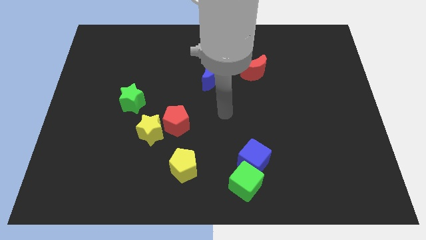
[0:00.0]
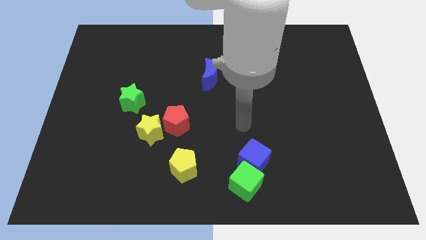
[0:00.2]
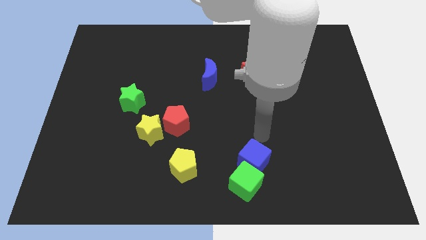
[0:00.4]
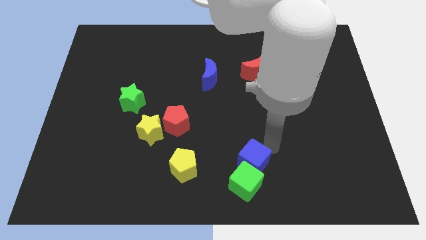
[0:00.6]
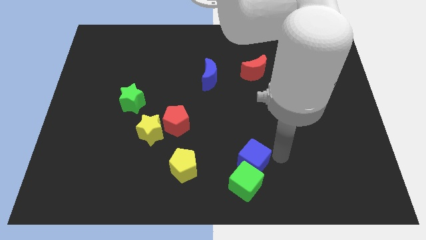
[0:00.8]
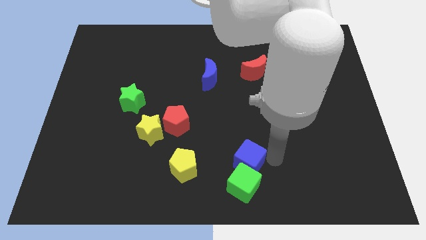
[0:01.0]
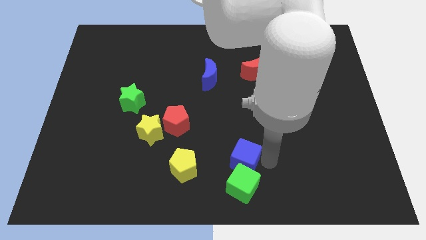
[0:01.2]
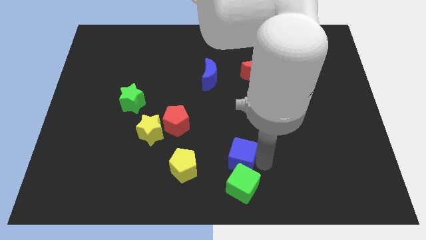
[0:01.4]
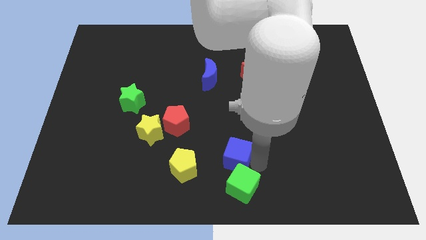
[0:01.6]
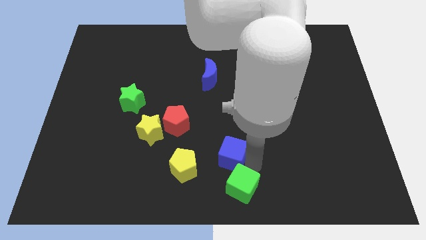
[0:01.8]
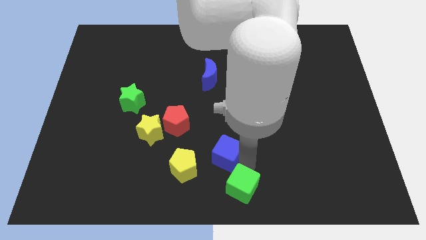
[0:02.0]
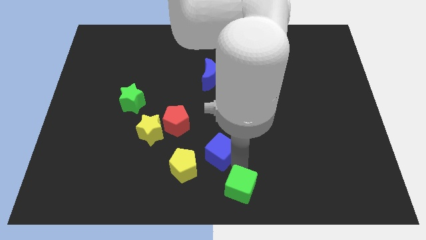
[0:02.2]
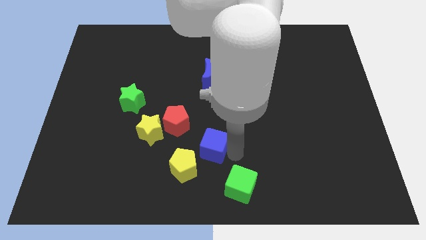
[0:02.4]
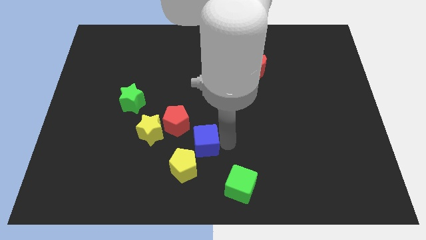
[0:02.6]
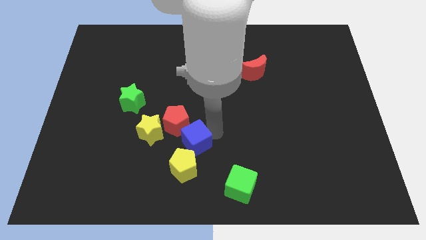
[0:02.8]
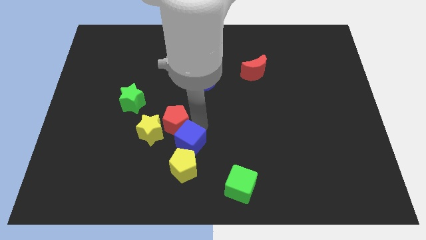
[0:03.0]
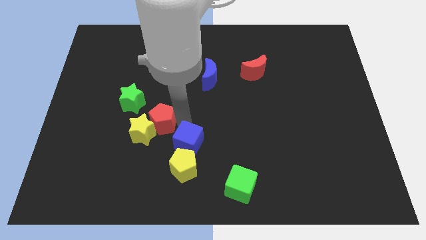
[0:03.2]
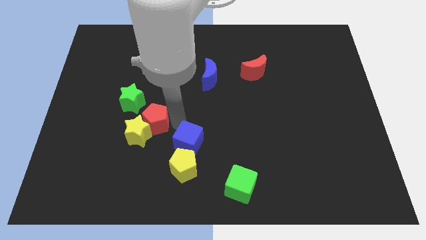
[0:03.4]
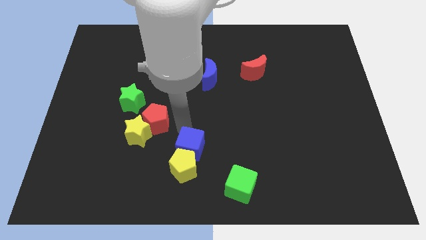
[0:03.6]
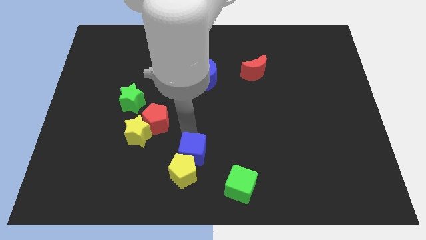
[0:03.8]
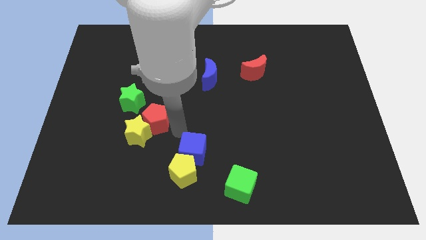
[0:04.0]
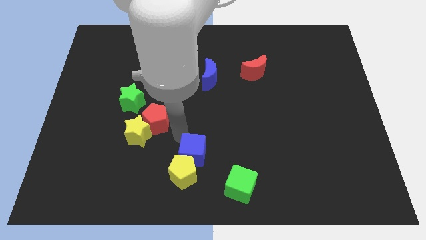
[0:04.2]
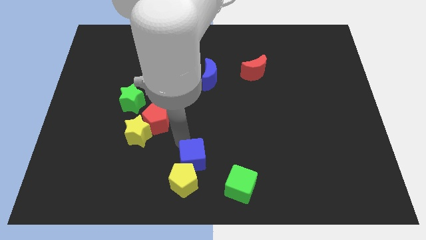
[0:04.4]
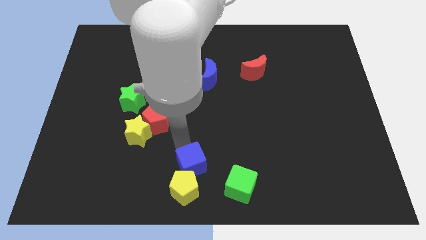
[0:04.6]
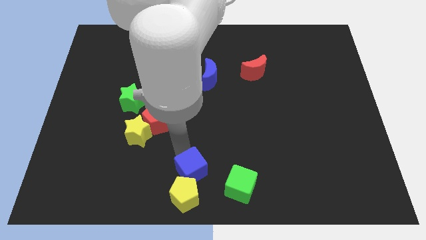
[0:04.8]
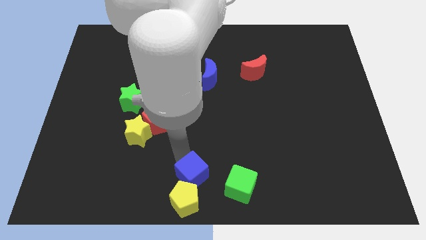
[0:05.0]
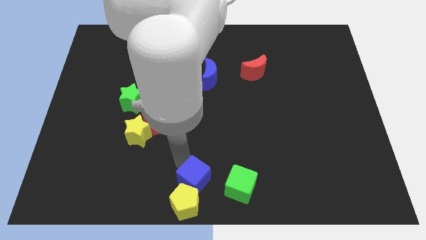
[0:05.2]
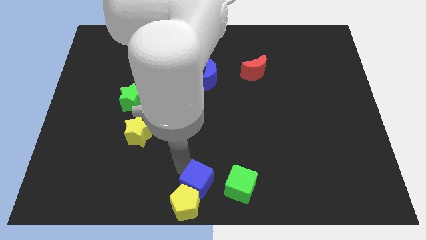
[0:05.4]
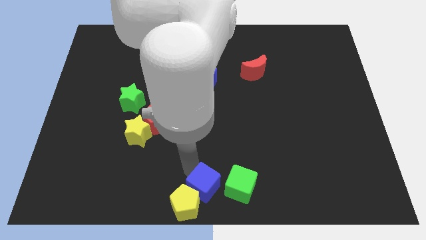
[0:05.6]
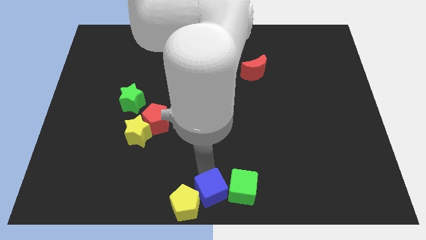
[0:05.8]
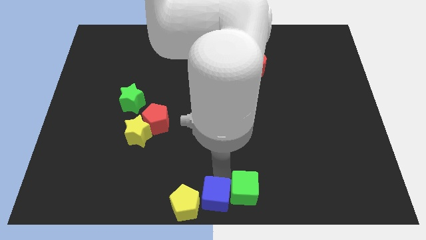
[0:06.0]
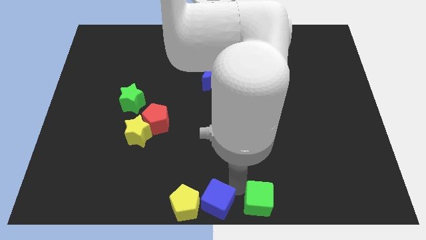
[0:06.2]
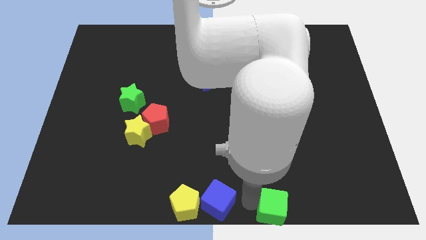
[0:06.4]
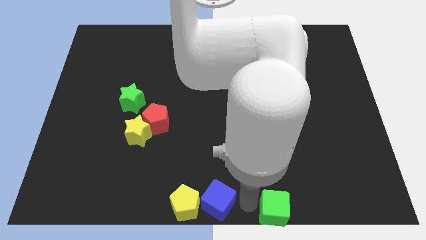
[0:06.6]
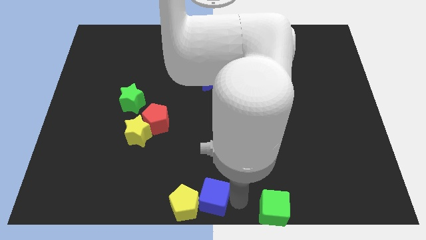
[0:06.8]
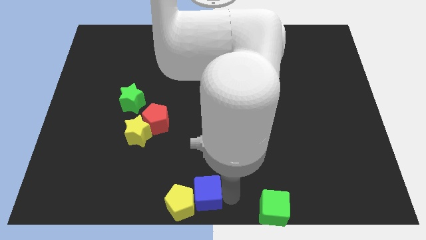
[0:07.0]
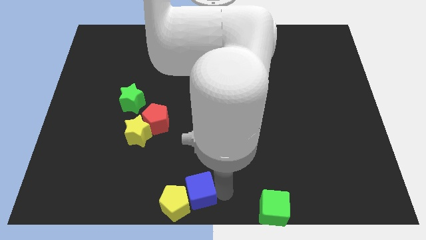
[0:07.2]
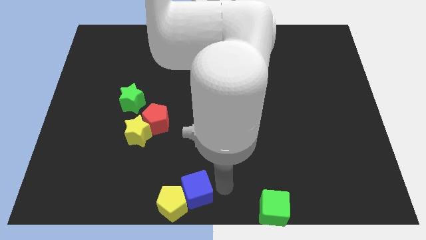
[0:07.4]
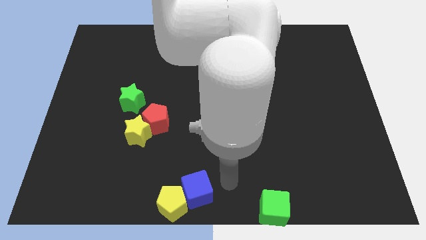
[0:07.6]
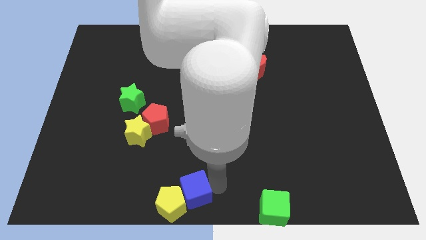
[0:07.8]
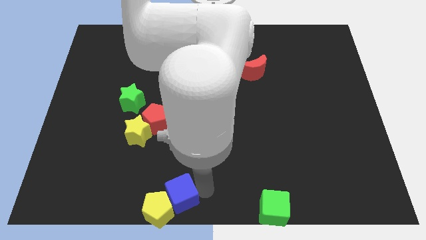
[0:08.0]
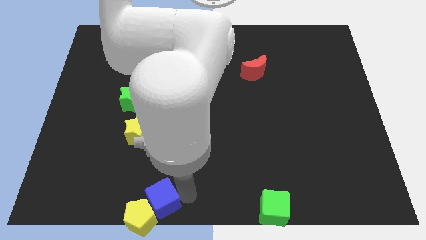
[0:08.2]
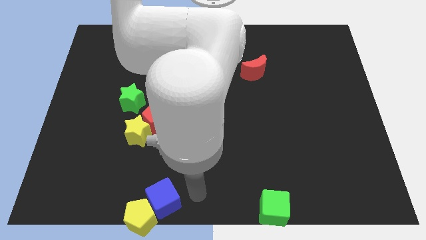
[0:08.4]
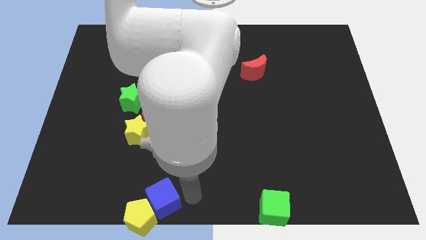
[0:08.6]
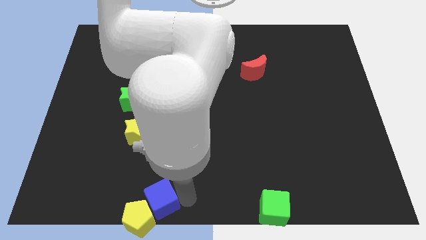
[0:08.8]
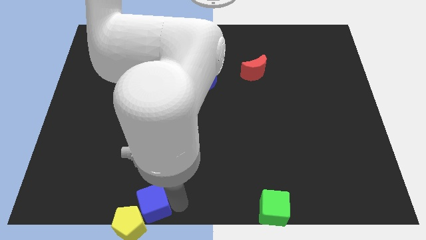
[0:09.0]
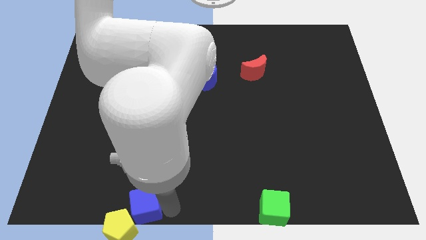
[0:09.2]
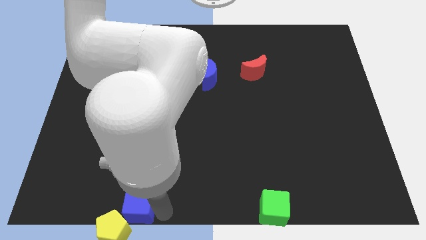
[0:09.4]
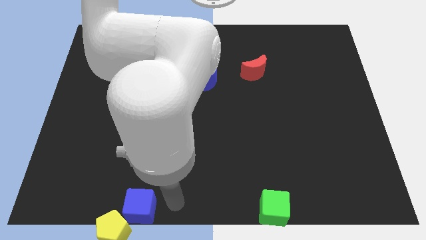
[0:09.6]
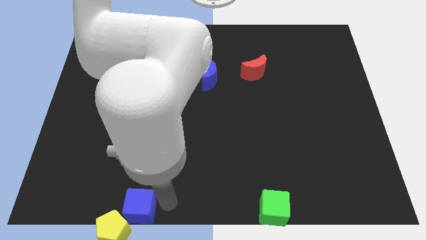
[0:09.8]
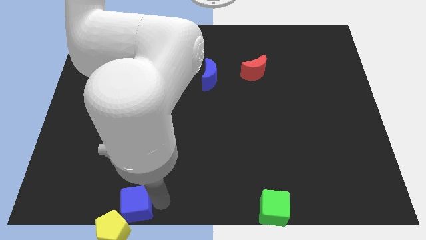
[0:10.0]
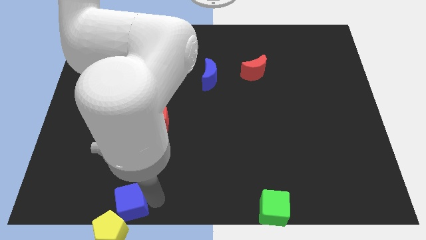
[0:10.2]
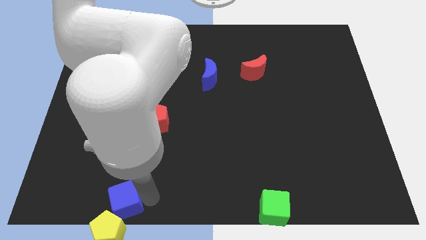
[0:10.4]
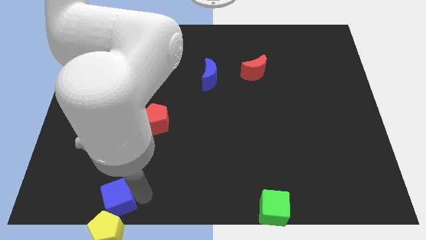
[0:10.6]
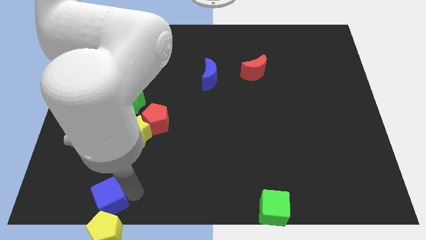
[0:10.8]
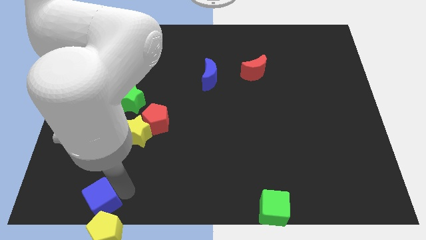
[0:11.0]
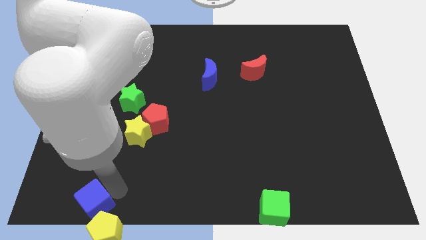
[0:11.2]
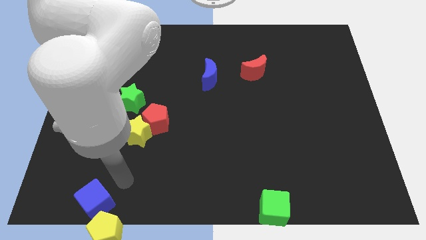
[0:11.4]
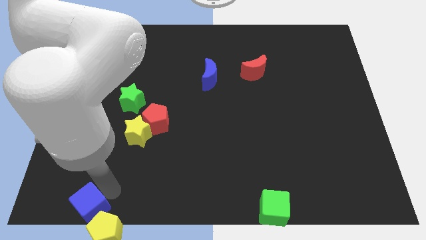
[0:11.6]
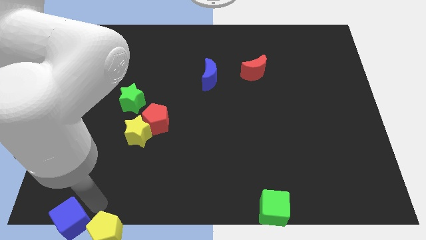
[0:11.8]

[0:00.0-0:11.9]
move the blue cube to the lower left corner
